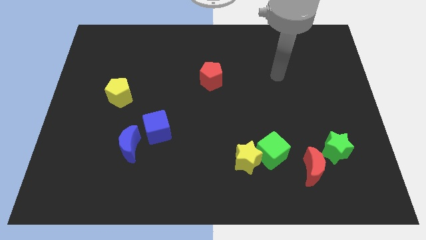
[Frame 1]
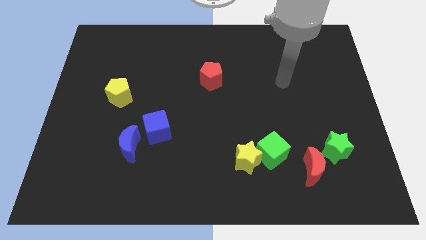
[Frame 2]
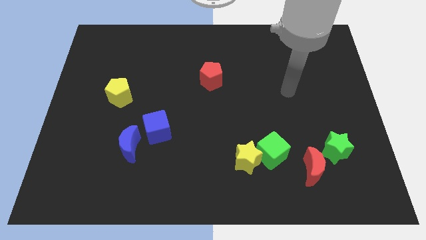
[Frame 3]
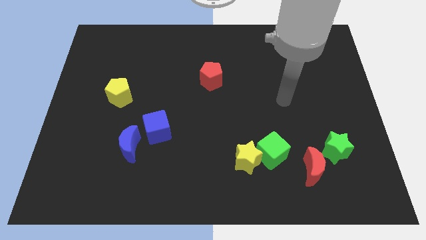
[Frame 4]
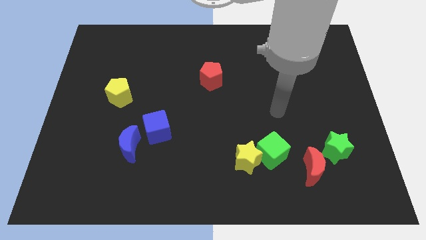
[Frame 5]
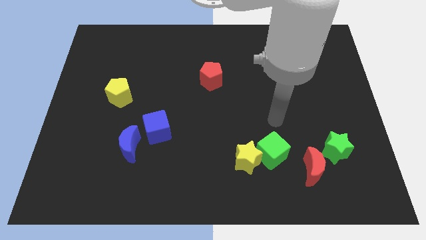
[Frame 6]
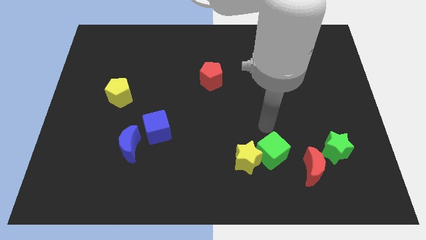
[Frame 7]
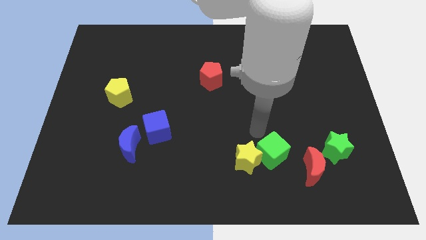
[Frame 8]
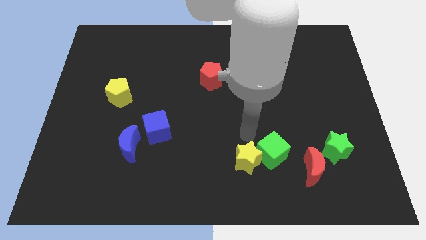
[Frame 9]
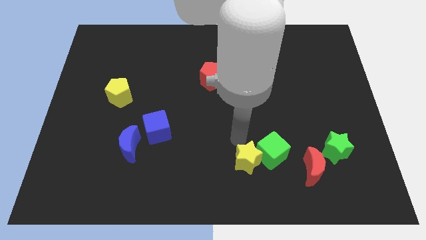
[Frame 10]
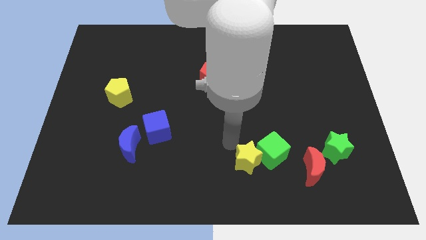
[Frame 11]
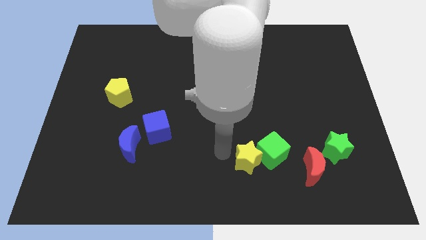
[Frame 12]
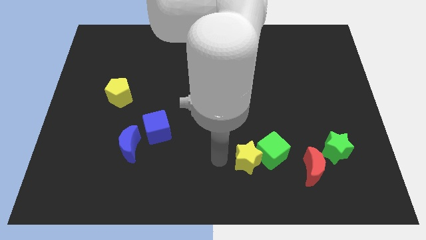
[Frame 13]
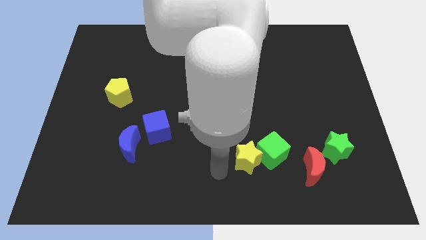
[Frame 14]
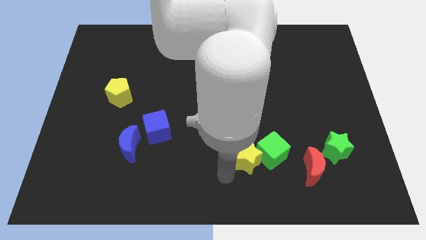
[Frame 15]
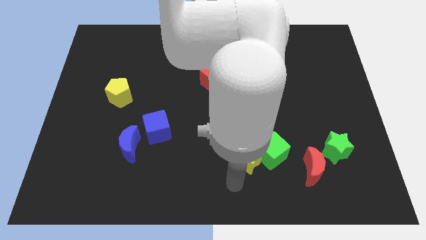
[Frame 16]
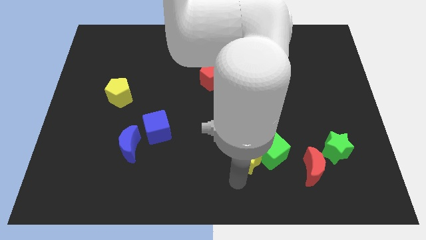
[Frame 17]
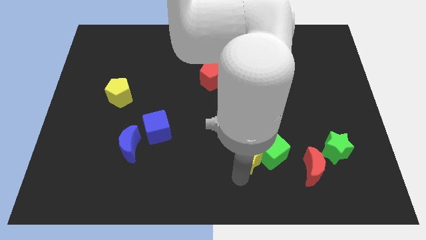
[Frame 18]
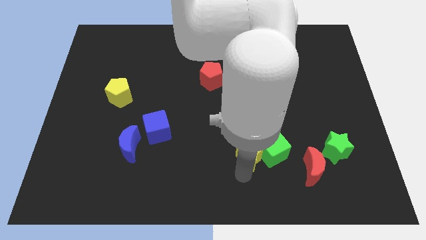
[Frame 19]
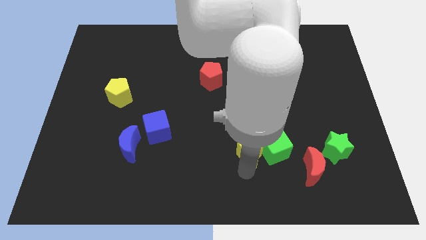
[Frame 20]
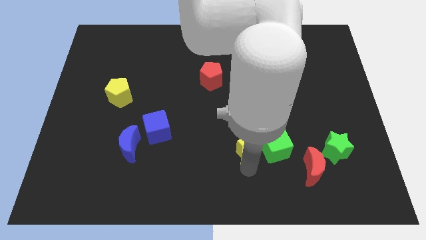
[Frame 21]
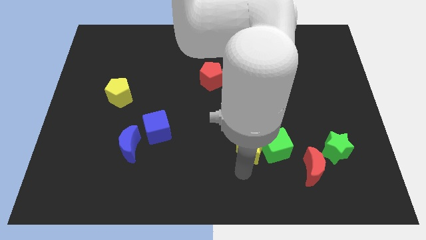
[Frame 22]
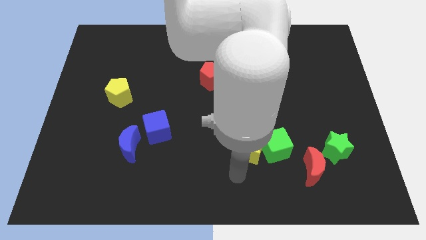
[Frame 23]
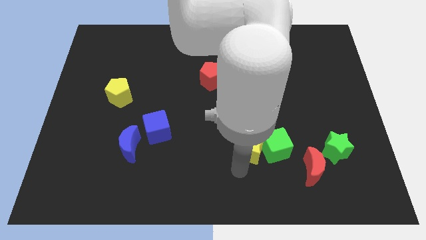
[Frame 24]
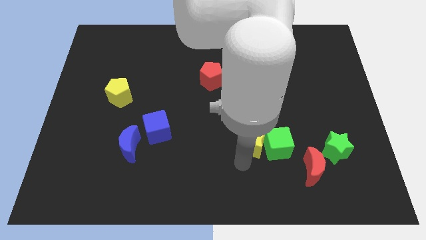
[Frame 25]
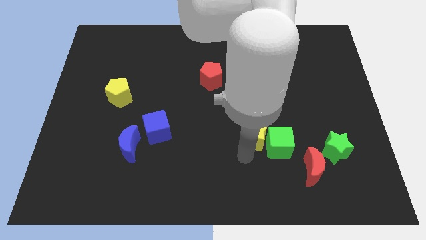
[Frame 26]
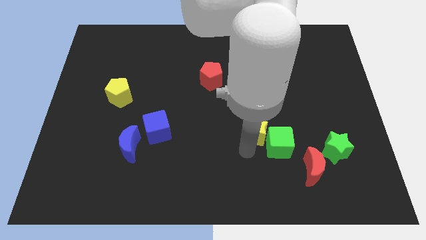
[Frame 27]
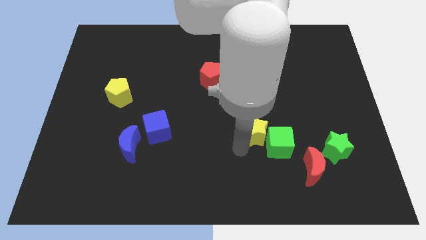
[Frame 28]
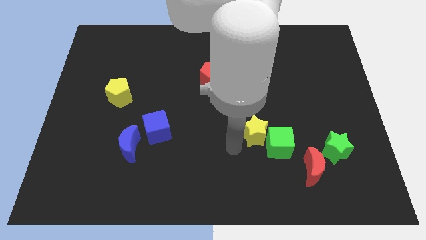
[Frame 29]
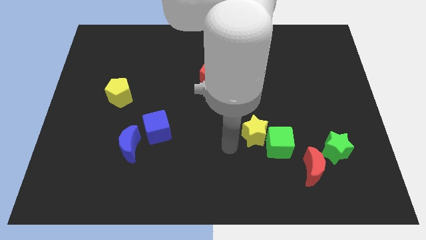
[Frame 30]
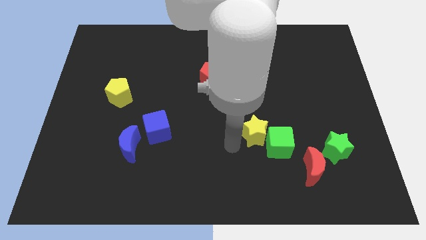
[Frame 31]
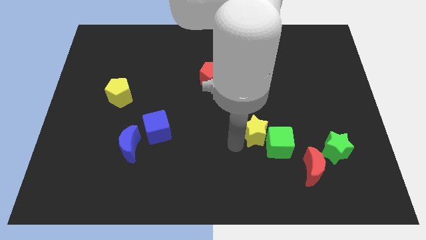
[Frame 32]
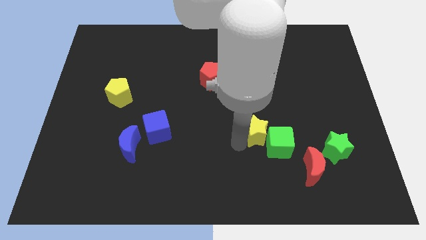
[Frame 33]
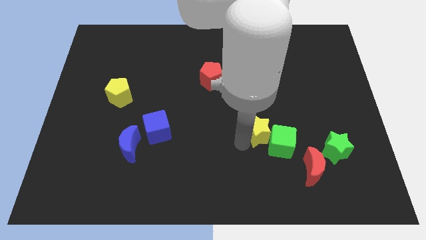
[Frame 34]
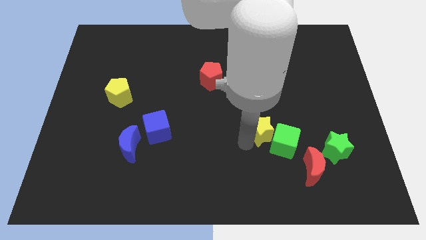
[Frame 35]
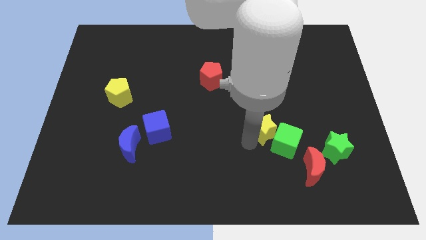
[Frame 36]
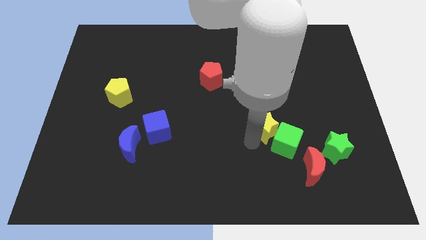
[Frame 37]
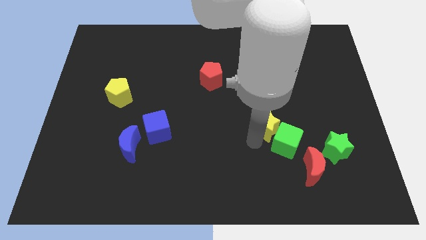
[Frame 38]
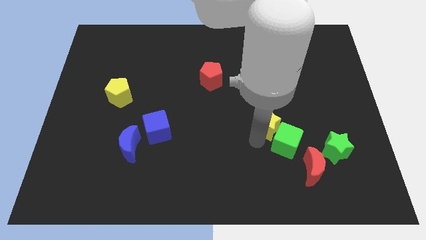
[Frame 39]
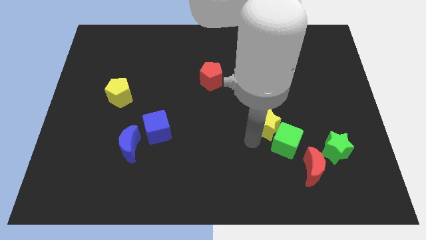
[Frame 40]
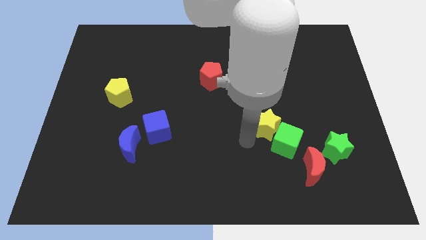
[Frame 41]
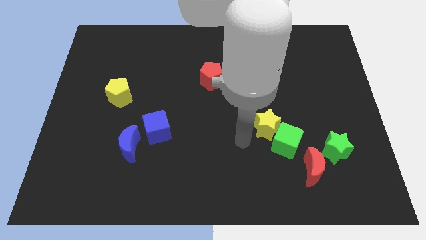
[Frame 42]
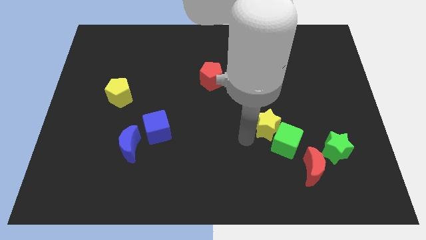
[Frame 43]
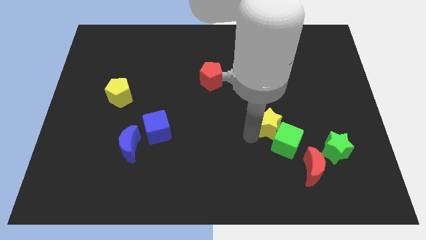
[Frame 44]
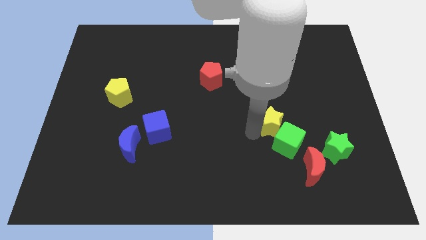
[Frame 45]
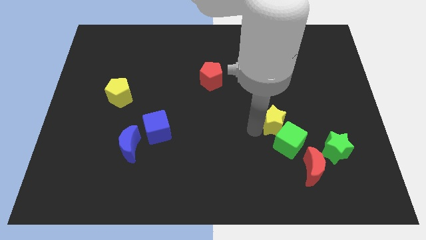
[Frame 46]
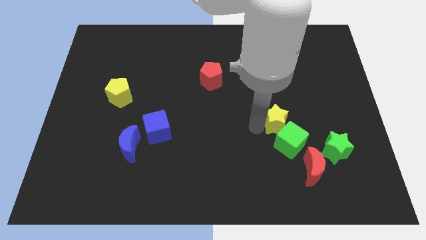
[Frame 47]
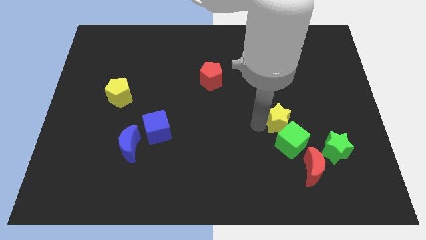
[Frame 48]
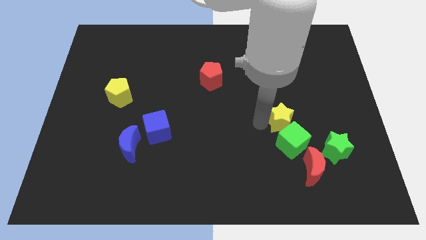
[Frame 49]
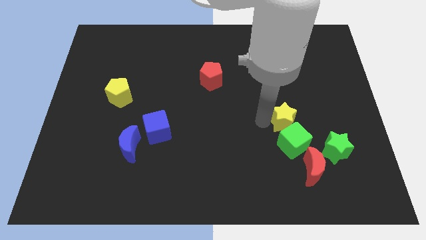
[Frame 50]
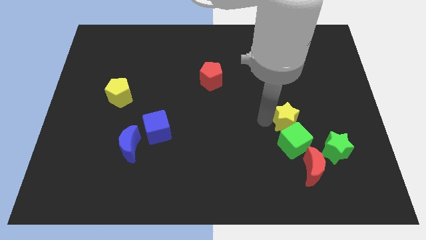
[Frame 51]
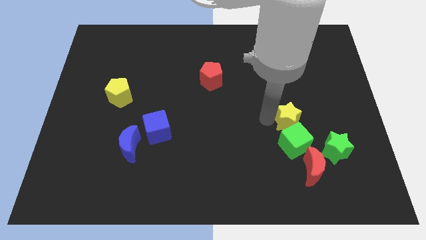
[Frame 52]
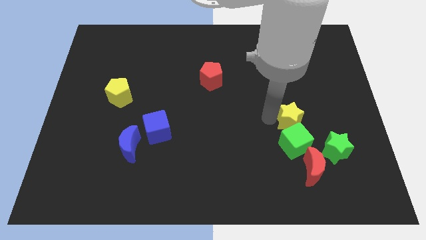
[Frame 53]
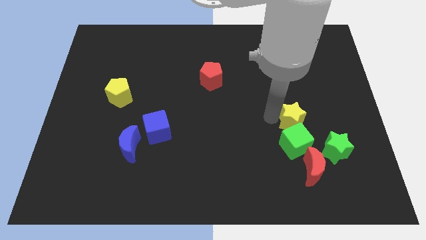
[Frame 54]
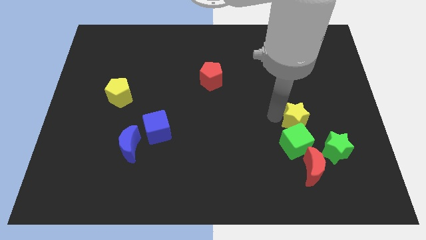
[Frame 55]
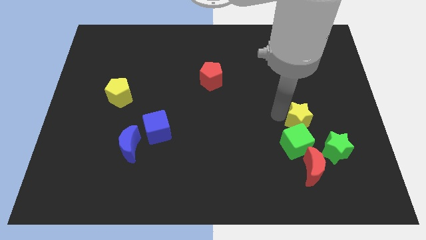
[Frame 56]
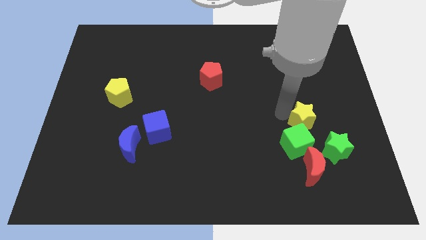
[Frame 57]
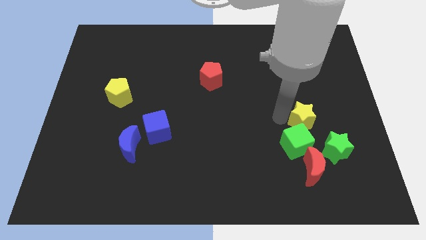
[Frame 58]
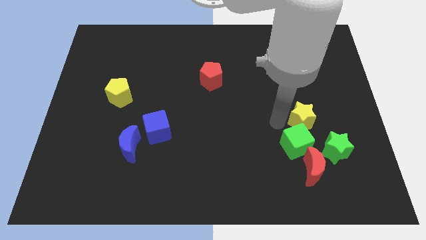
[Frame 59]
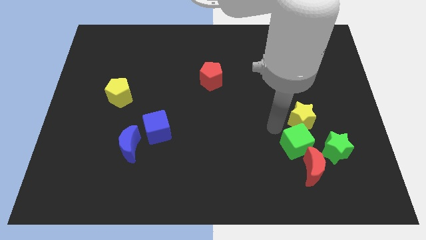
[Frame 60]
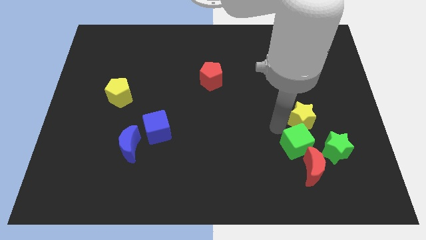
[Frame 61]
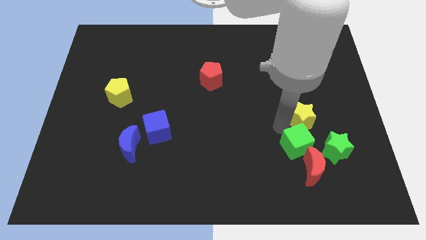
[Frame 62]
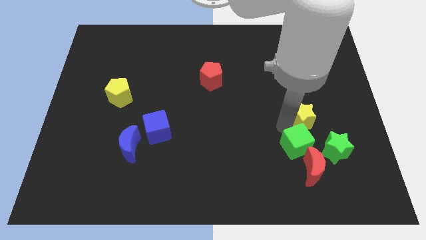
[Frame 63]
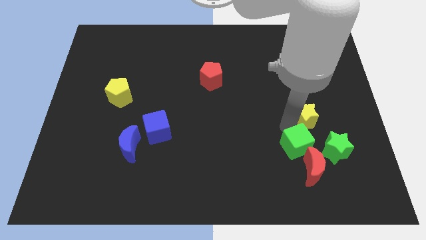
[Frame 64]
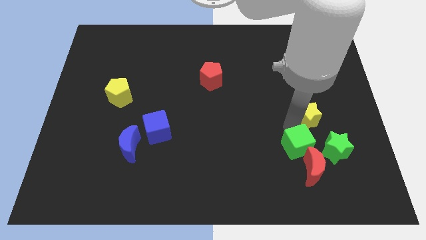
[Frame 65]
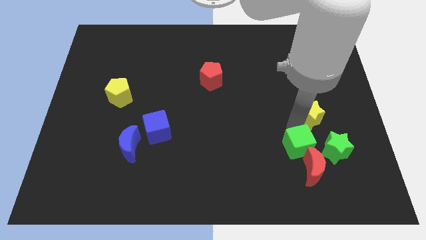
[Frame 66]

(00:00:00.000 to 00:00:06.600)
slide the yellow star to the top side of the green star

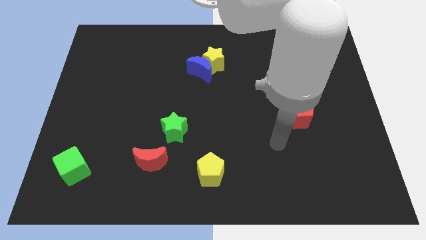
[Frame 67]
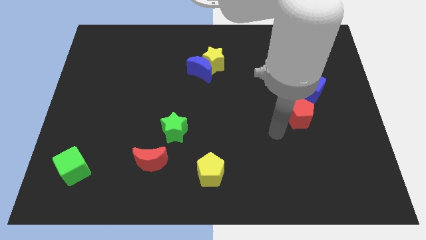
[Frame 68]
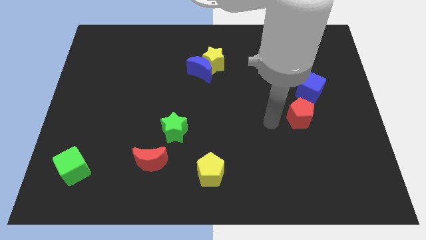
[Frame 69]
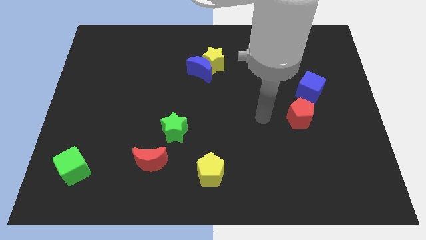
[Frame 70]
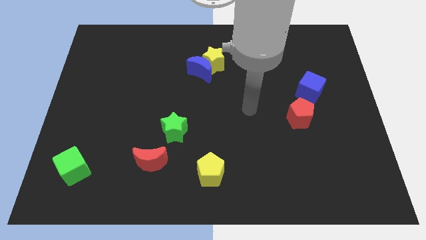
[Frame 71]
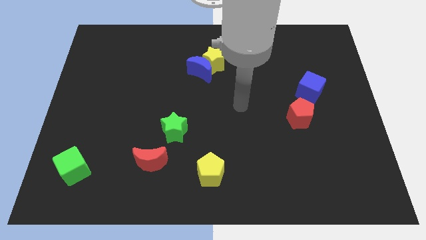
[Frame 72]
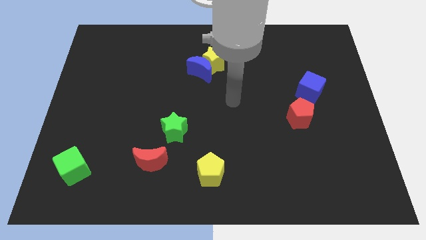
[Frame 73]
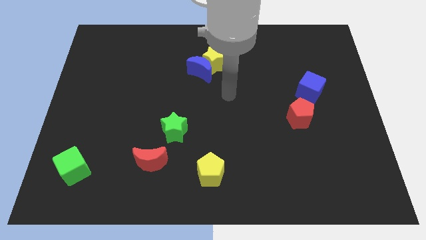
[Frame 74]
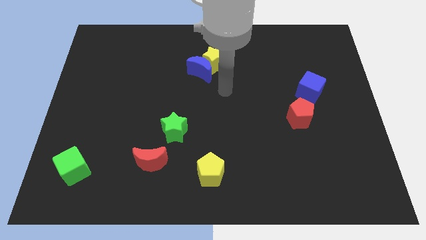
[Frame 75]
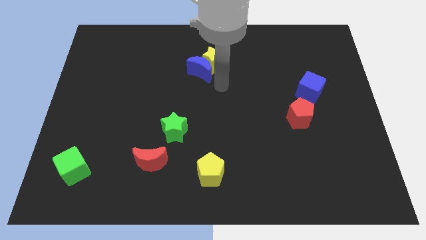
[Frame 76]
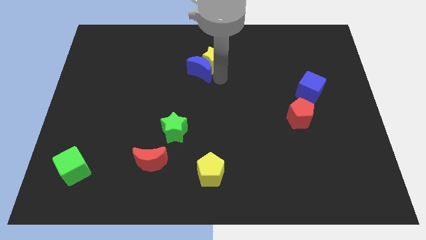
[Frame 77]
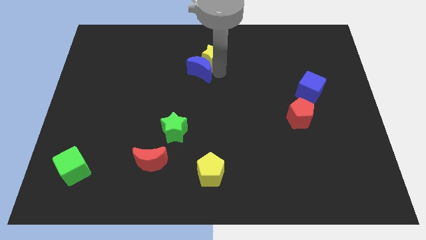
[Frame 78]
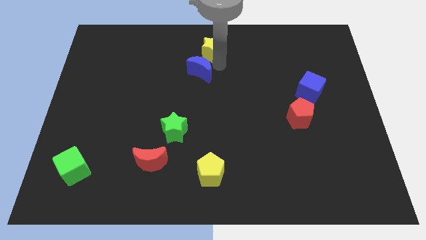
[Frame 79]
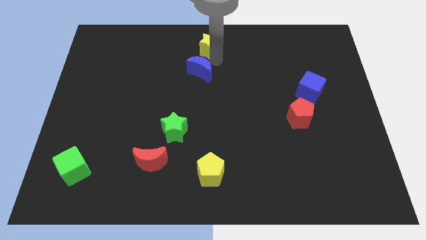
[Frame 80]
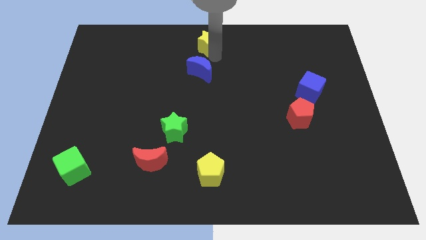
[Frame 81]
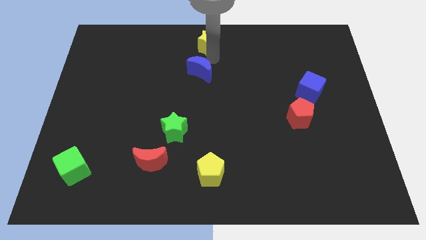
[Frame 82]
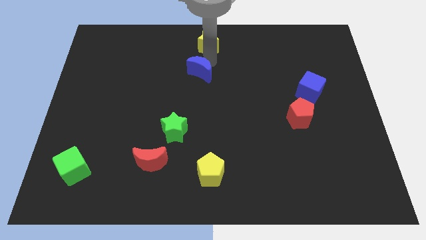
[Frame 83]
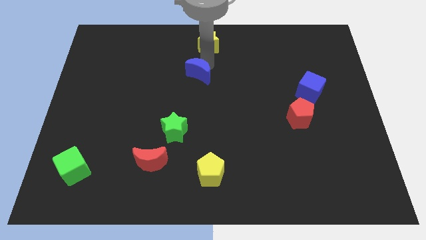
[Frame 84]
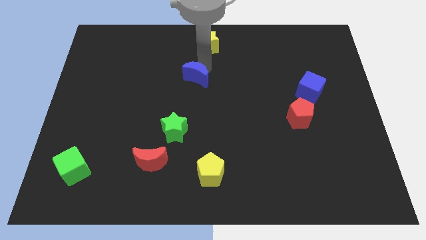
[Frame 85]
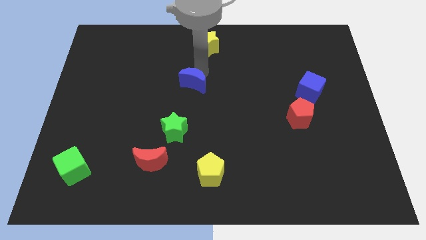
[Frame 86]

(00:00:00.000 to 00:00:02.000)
move the blue moon to the top of the green star

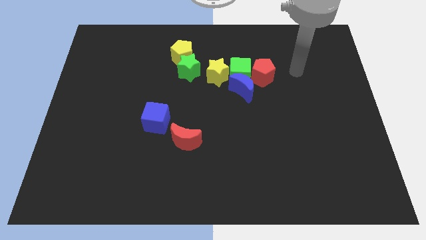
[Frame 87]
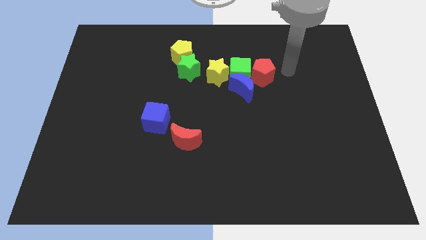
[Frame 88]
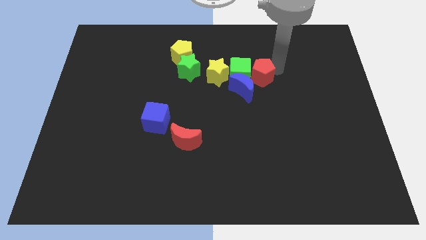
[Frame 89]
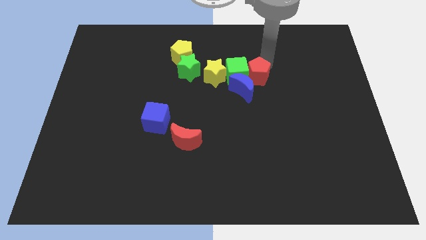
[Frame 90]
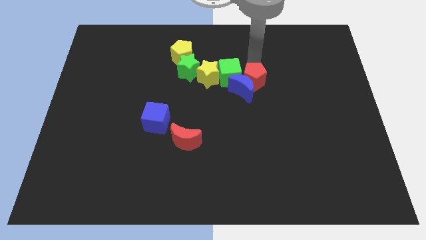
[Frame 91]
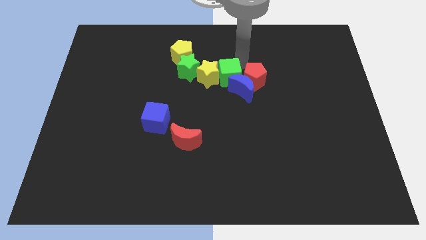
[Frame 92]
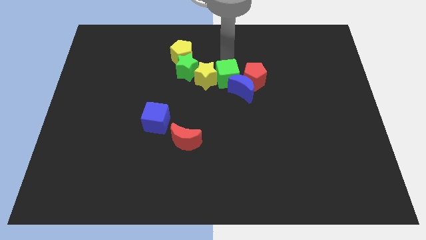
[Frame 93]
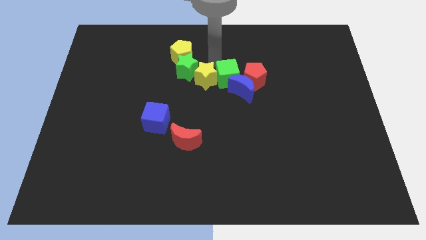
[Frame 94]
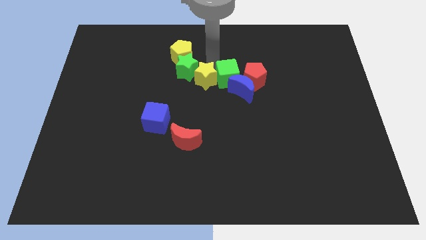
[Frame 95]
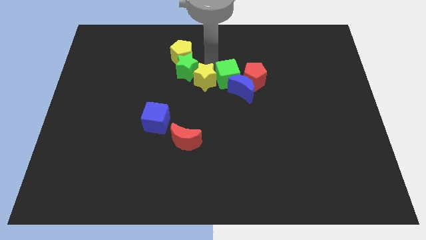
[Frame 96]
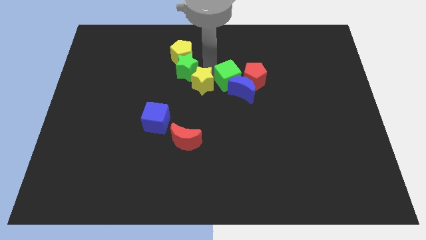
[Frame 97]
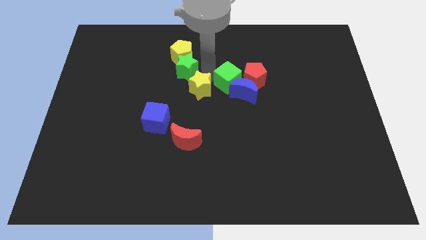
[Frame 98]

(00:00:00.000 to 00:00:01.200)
slide the yellow star to the top side of the red moon
